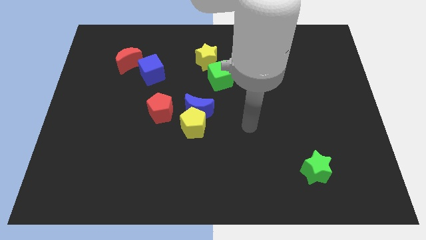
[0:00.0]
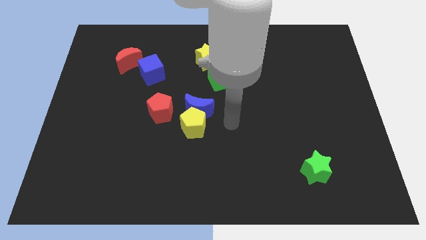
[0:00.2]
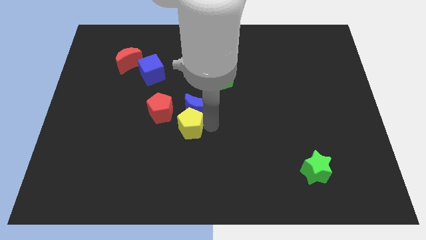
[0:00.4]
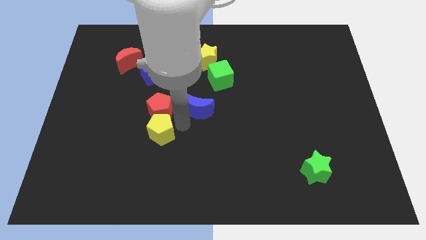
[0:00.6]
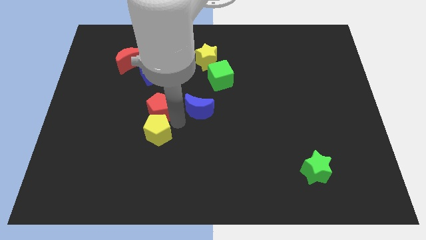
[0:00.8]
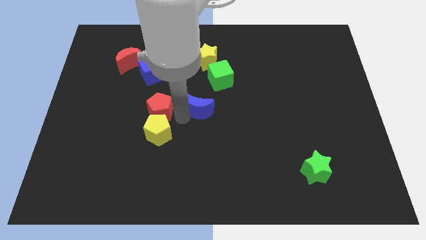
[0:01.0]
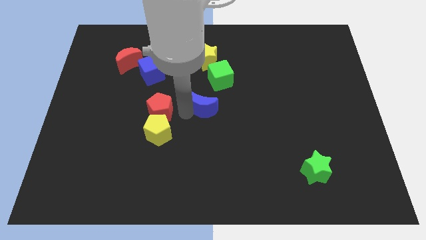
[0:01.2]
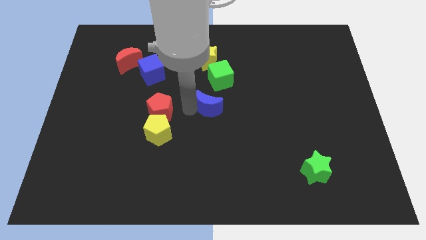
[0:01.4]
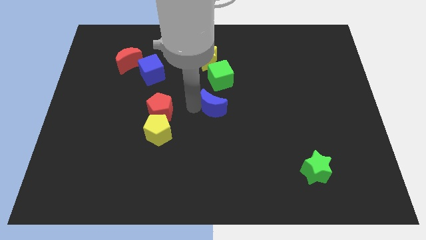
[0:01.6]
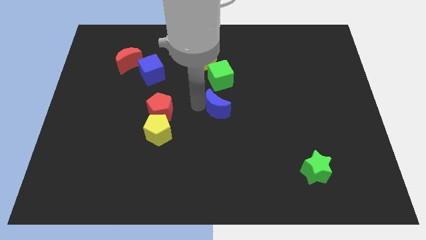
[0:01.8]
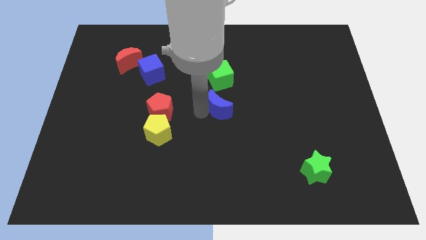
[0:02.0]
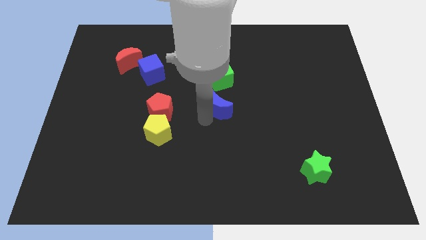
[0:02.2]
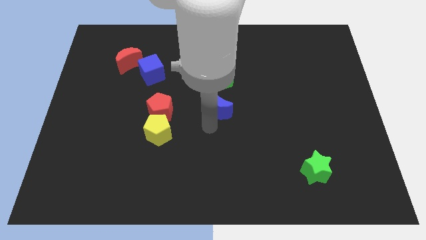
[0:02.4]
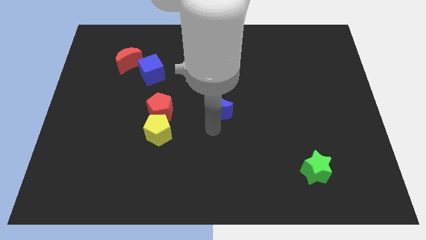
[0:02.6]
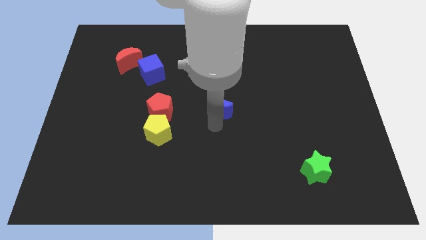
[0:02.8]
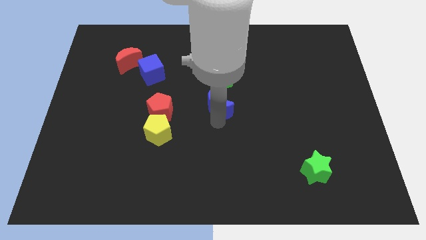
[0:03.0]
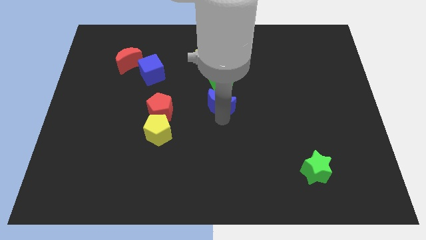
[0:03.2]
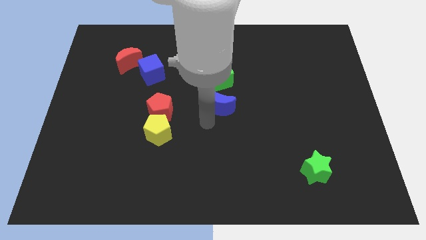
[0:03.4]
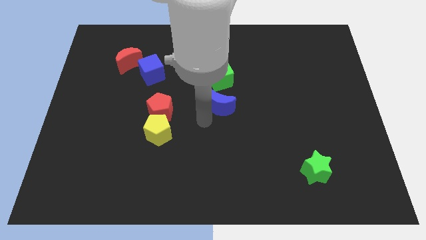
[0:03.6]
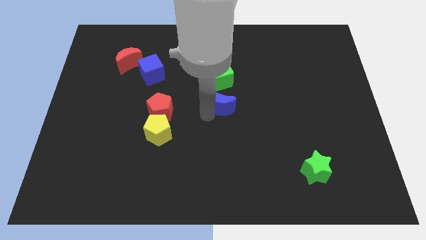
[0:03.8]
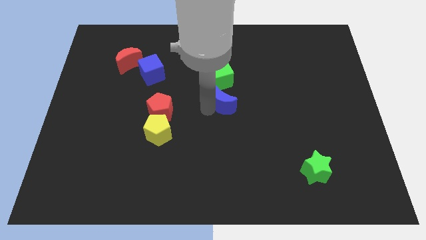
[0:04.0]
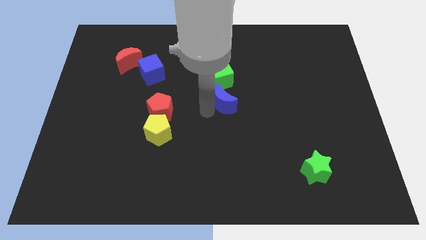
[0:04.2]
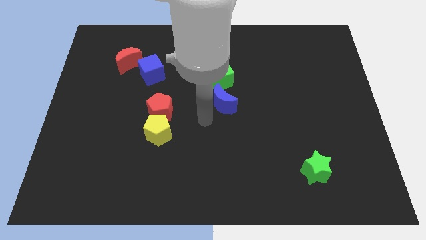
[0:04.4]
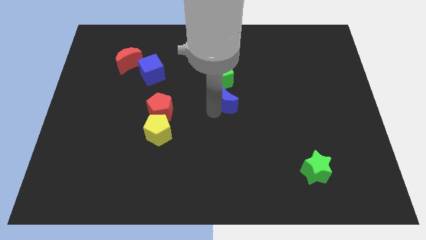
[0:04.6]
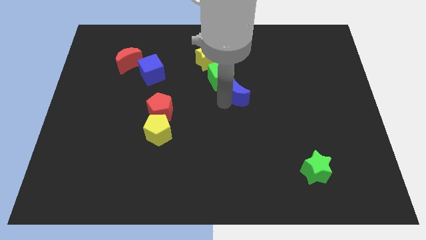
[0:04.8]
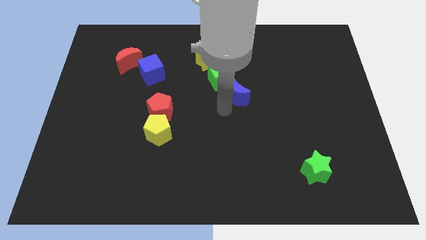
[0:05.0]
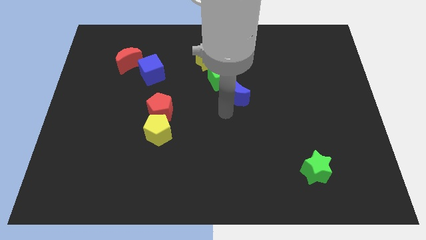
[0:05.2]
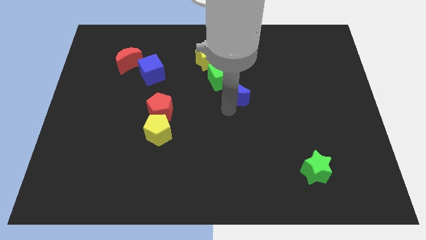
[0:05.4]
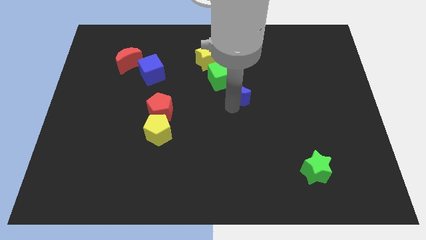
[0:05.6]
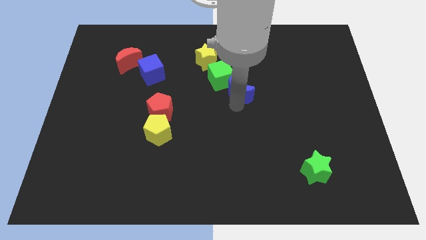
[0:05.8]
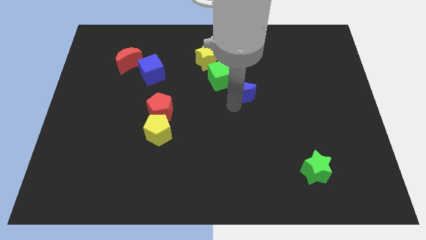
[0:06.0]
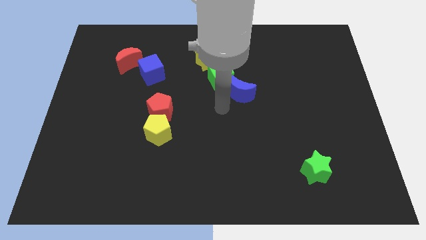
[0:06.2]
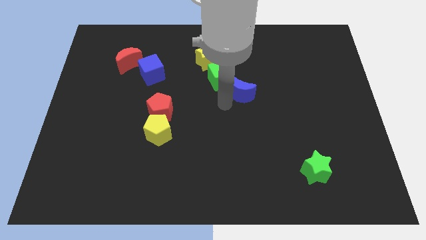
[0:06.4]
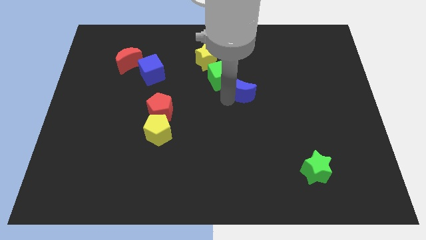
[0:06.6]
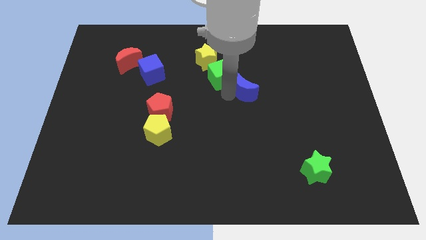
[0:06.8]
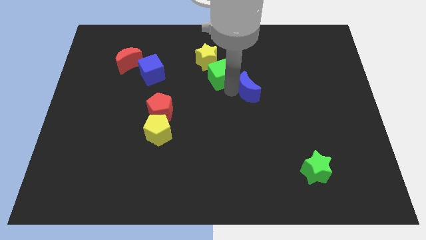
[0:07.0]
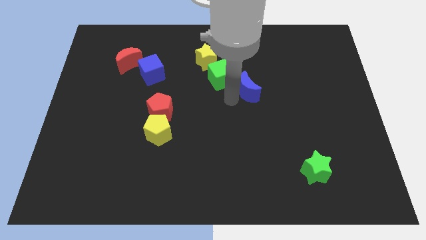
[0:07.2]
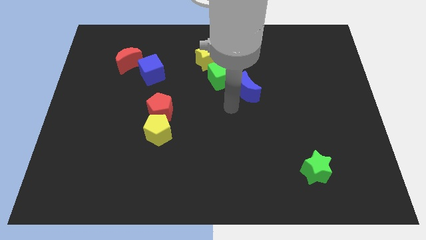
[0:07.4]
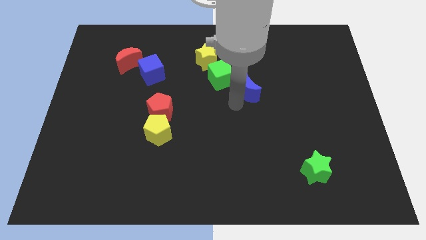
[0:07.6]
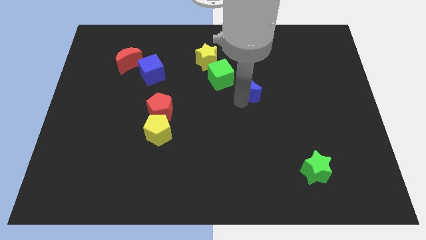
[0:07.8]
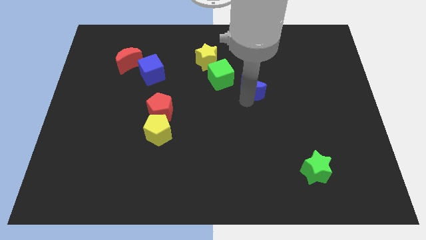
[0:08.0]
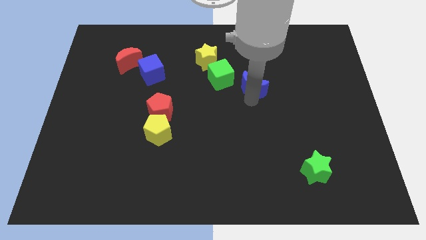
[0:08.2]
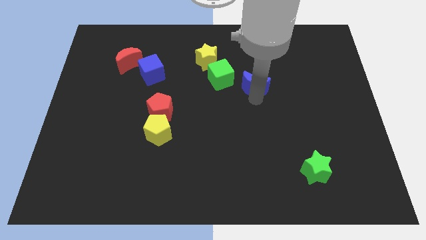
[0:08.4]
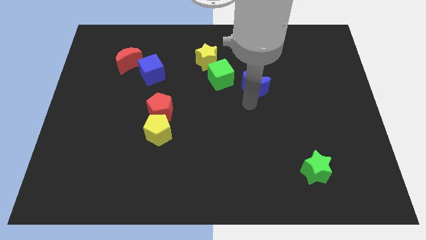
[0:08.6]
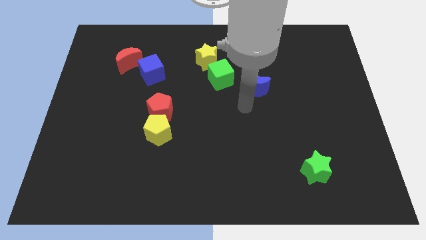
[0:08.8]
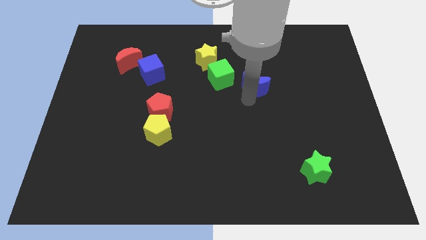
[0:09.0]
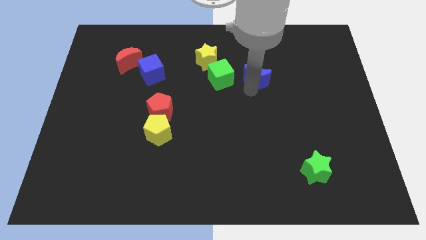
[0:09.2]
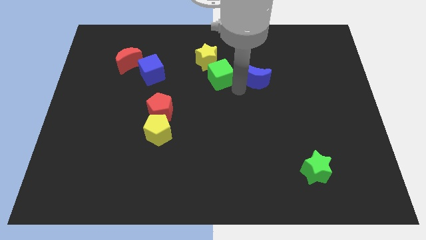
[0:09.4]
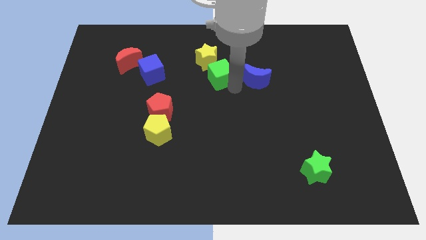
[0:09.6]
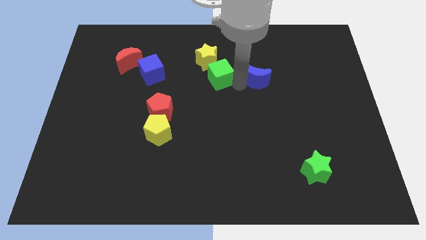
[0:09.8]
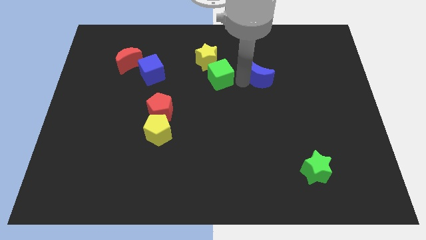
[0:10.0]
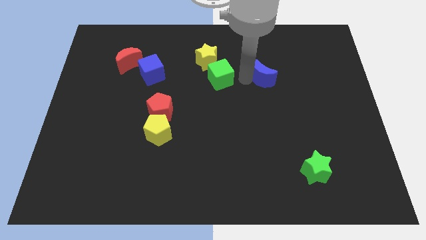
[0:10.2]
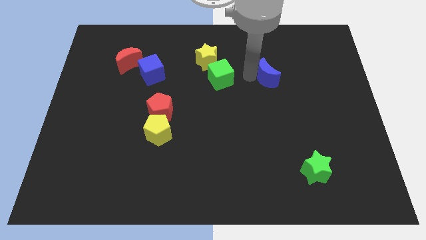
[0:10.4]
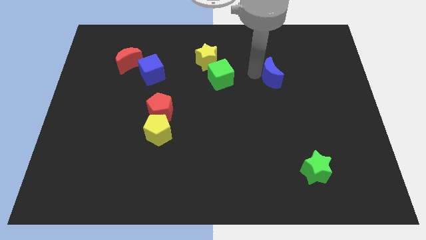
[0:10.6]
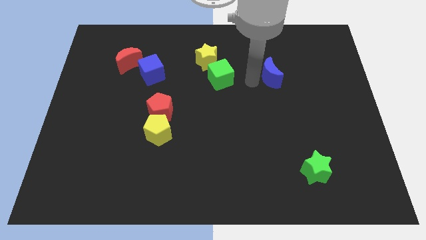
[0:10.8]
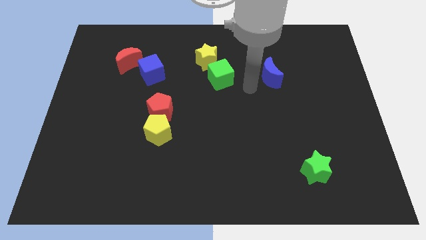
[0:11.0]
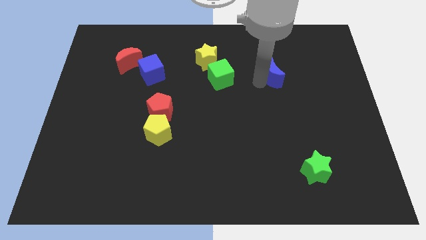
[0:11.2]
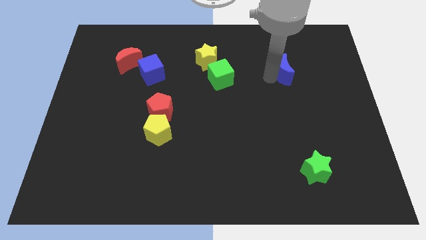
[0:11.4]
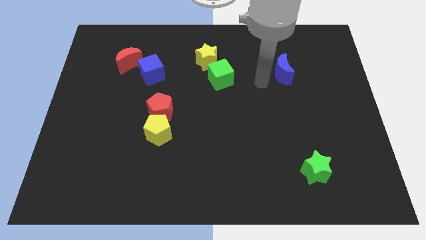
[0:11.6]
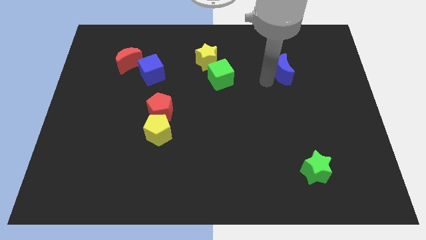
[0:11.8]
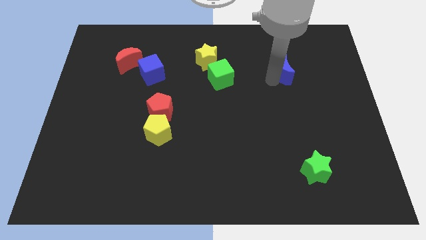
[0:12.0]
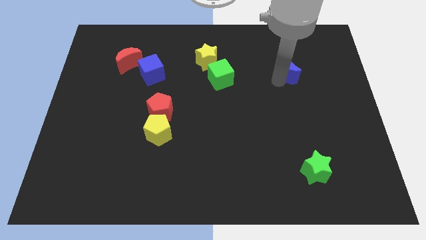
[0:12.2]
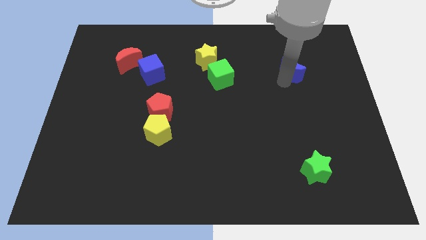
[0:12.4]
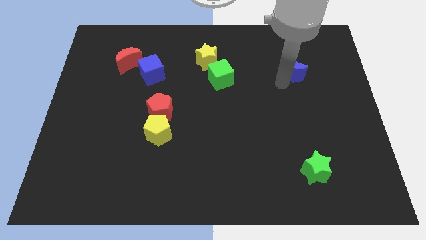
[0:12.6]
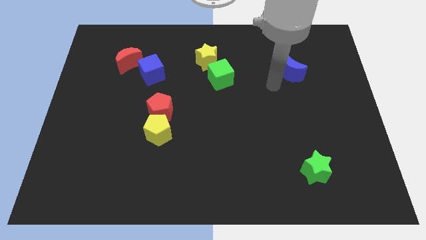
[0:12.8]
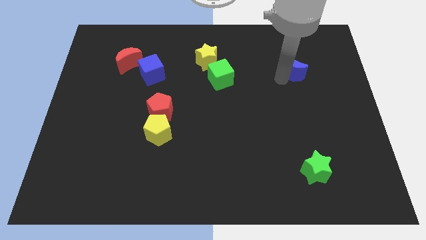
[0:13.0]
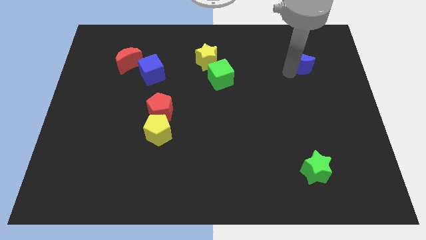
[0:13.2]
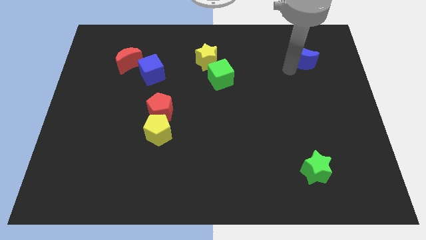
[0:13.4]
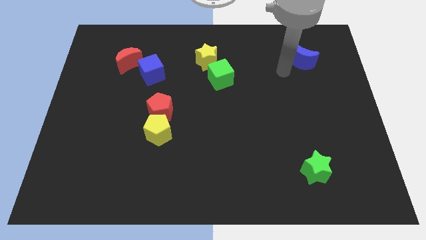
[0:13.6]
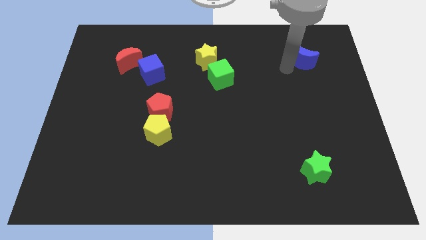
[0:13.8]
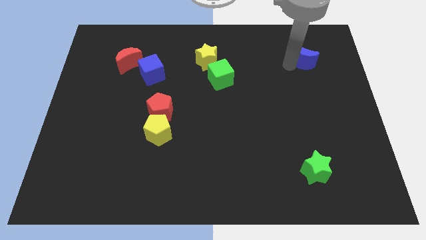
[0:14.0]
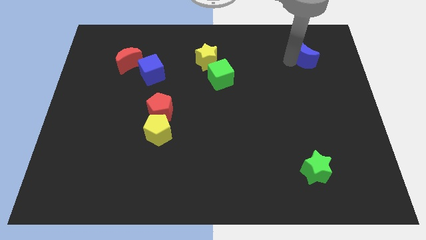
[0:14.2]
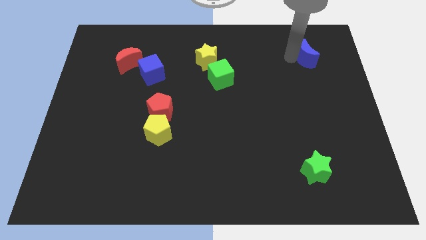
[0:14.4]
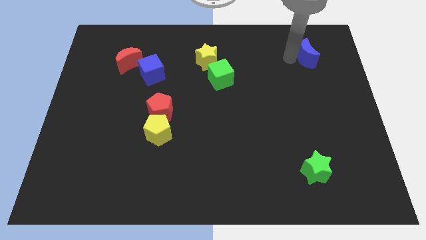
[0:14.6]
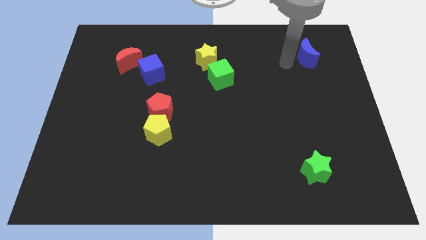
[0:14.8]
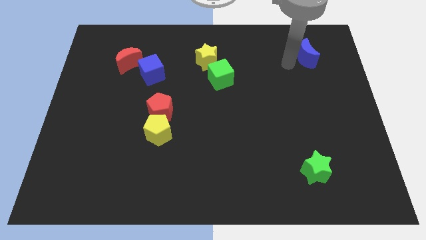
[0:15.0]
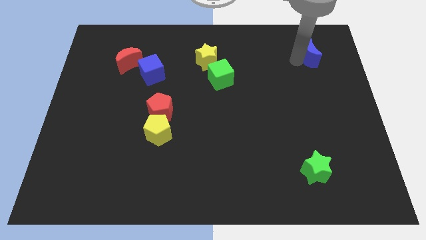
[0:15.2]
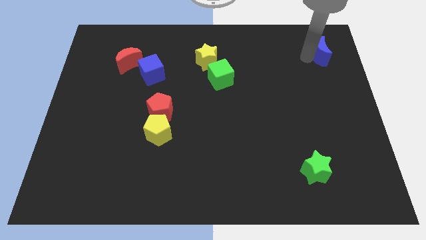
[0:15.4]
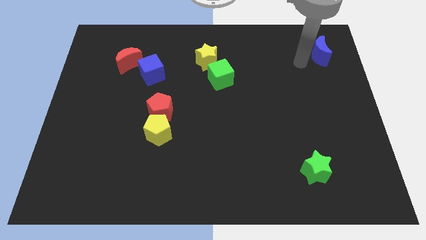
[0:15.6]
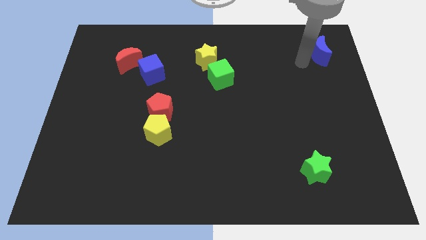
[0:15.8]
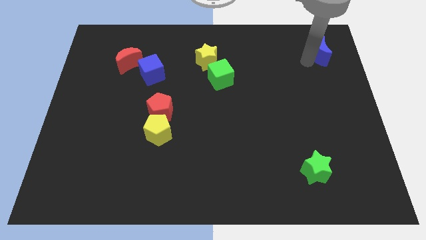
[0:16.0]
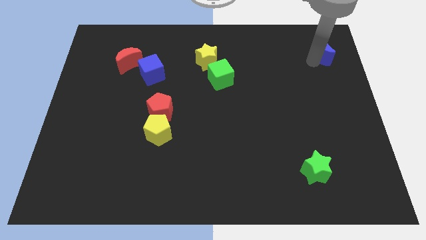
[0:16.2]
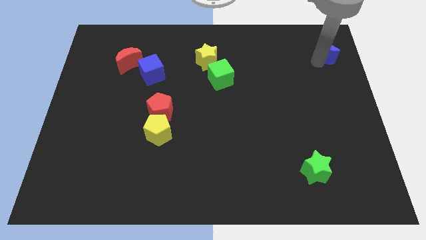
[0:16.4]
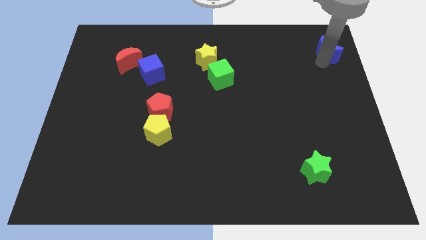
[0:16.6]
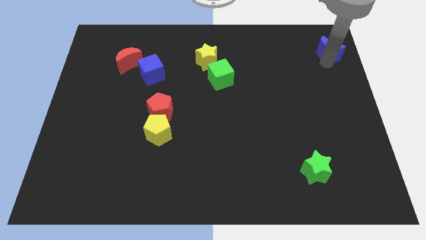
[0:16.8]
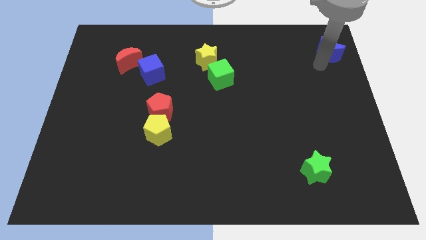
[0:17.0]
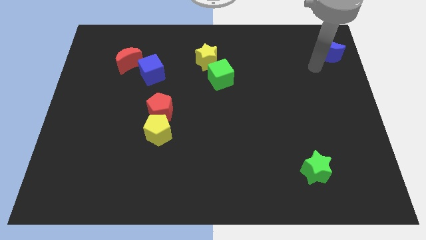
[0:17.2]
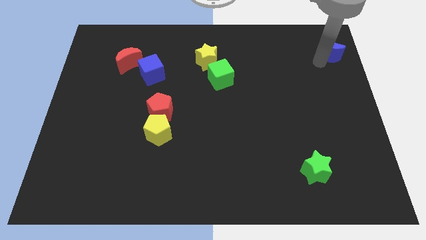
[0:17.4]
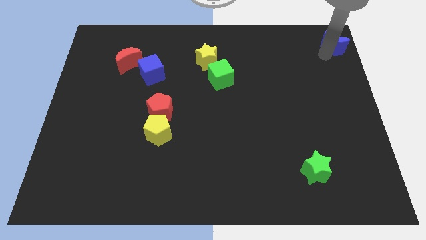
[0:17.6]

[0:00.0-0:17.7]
push the blue moon to the top right corner
